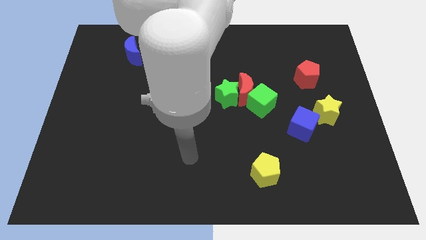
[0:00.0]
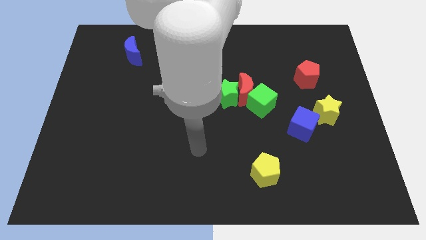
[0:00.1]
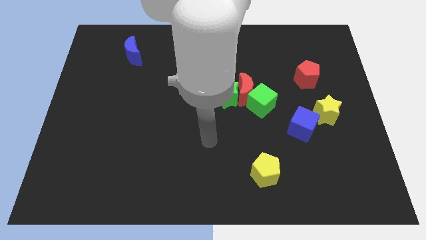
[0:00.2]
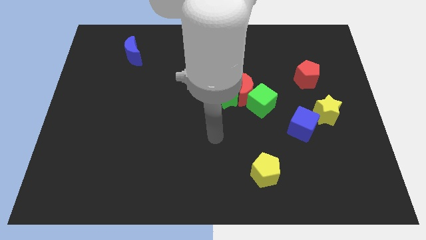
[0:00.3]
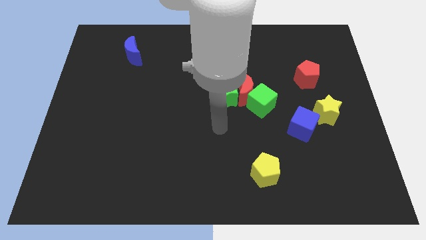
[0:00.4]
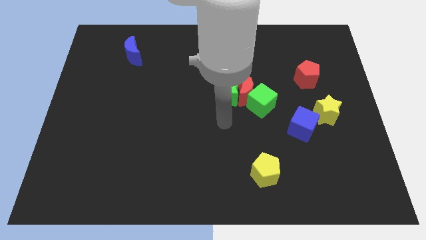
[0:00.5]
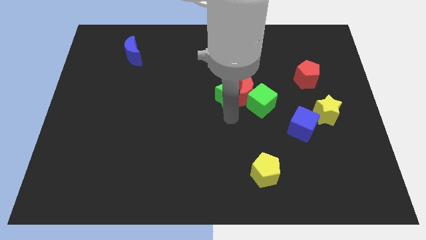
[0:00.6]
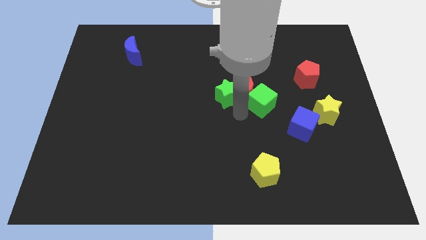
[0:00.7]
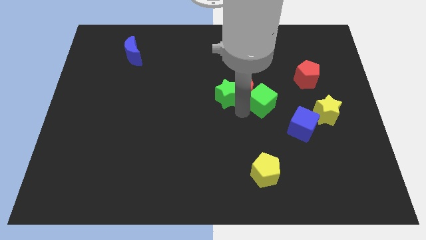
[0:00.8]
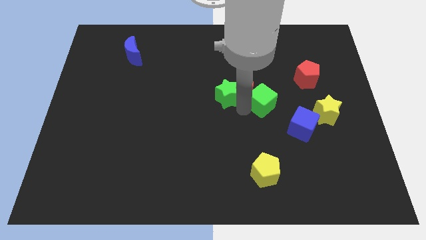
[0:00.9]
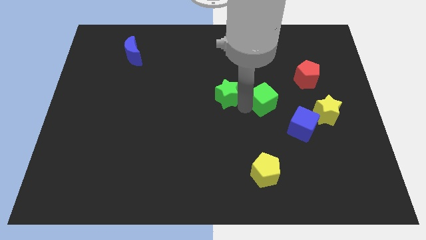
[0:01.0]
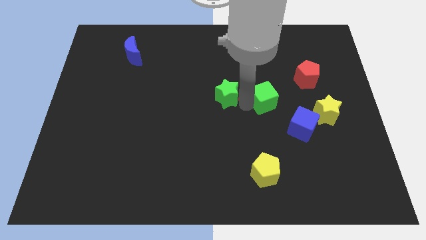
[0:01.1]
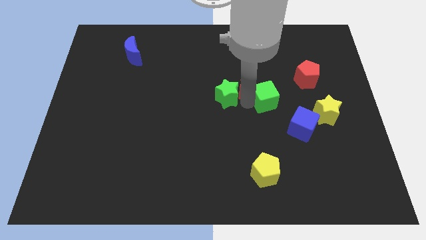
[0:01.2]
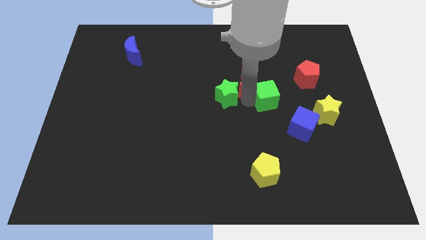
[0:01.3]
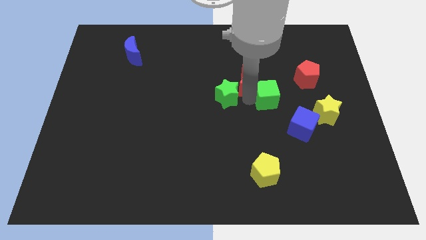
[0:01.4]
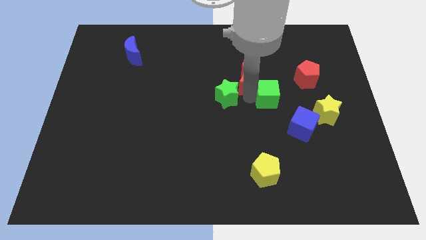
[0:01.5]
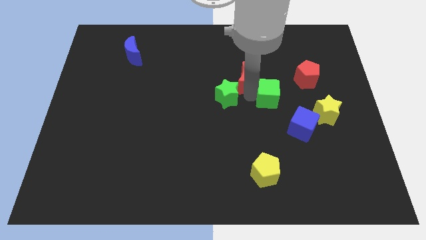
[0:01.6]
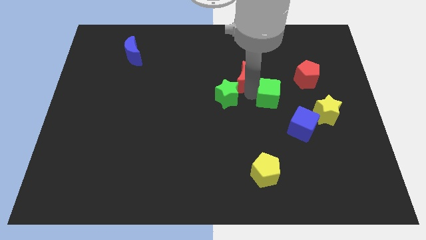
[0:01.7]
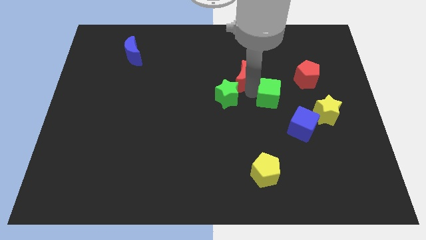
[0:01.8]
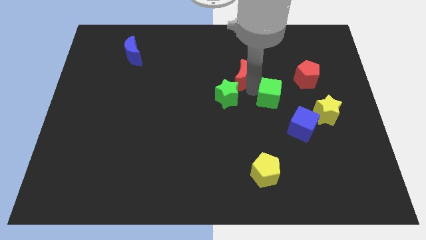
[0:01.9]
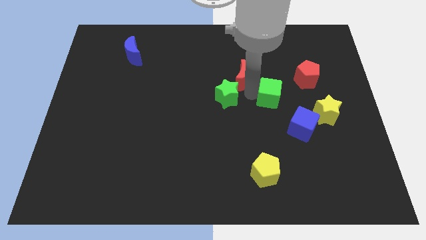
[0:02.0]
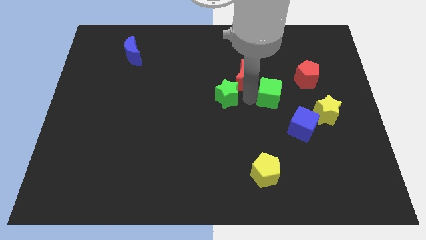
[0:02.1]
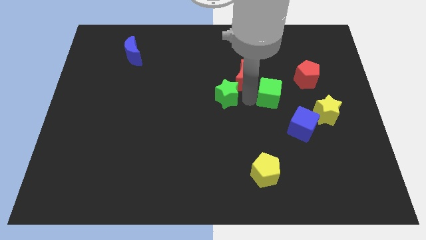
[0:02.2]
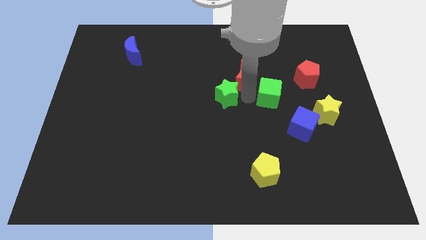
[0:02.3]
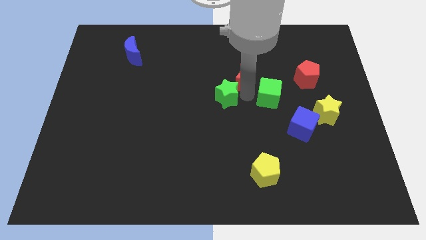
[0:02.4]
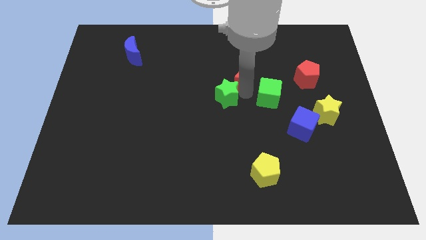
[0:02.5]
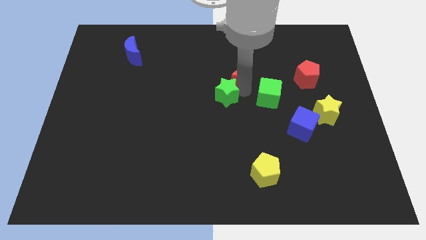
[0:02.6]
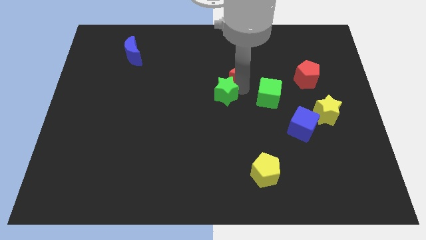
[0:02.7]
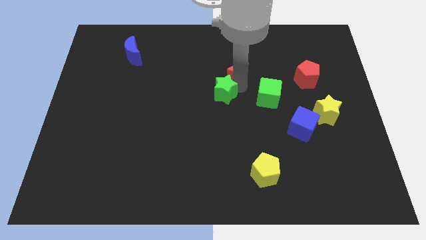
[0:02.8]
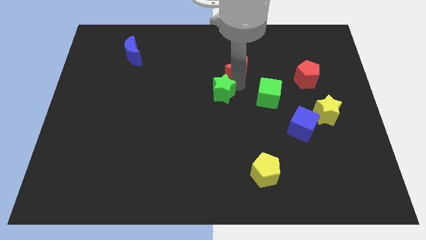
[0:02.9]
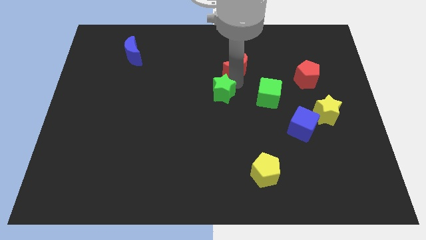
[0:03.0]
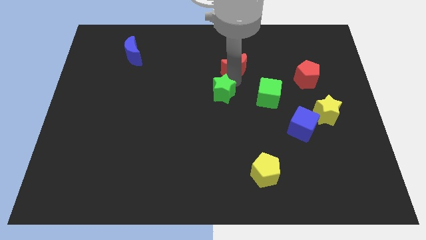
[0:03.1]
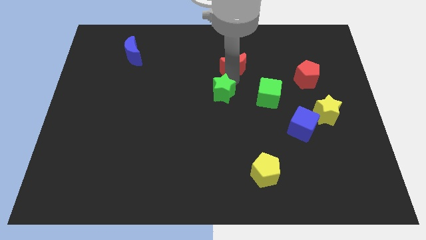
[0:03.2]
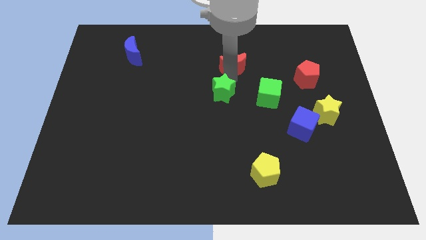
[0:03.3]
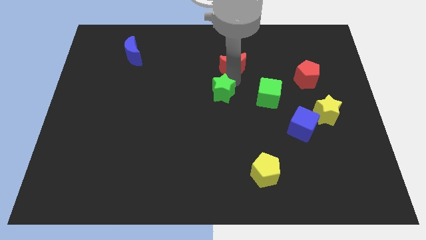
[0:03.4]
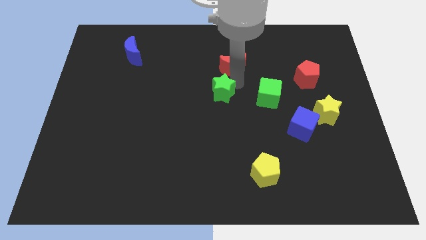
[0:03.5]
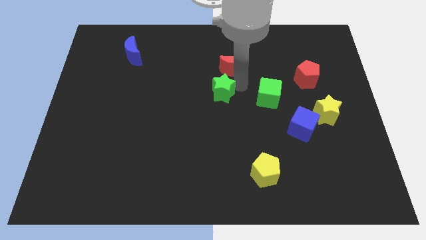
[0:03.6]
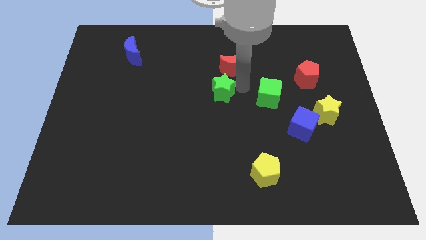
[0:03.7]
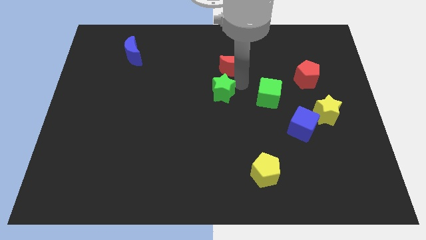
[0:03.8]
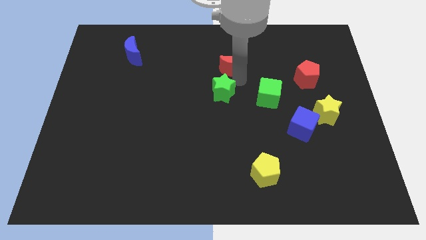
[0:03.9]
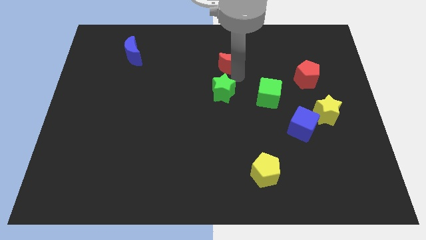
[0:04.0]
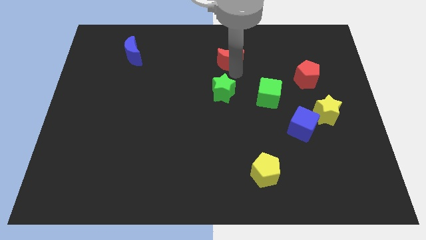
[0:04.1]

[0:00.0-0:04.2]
move the red moon away from the green star and green cube

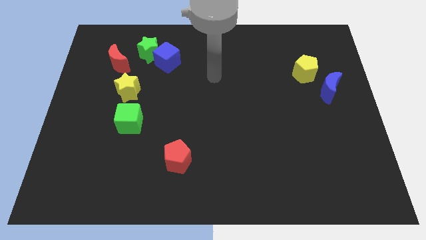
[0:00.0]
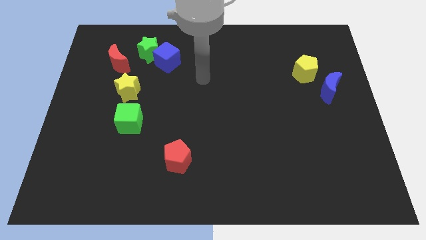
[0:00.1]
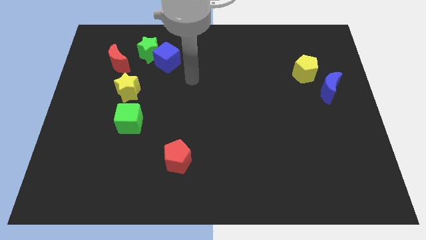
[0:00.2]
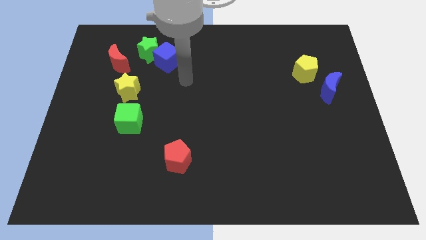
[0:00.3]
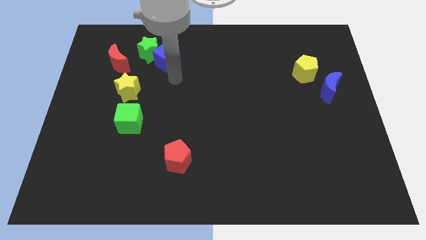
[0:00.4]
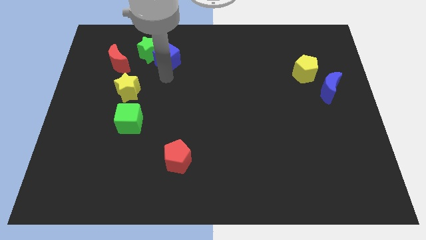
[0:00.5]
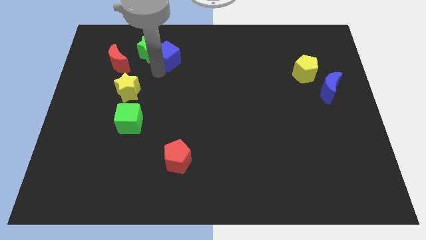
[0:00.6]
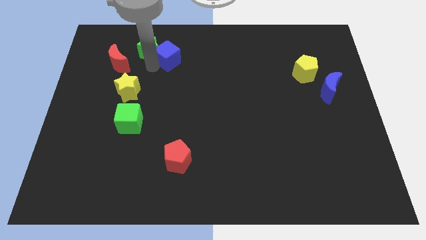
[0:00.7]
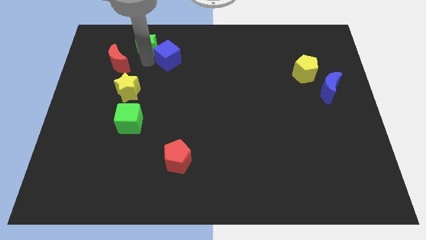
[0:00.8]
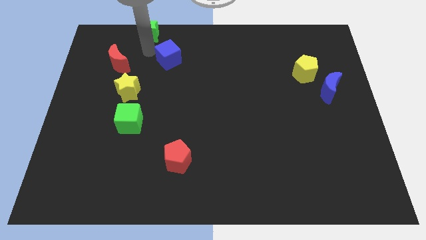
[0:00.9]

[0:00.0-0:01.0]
pull the blue cube apart from the green star

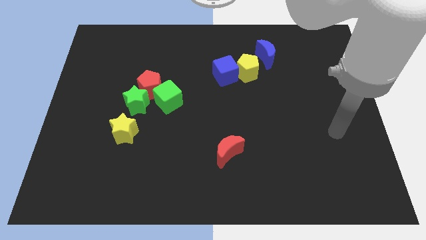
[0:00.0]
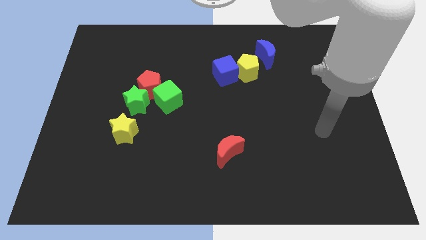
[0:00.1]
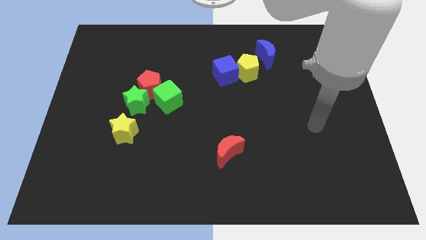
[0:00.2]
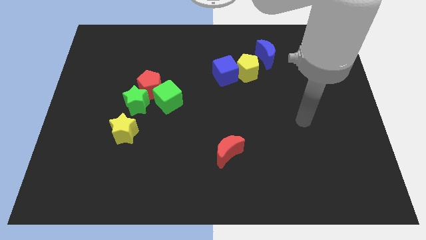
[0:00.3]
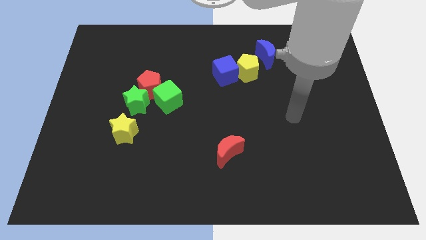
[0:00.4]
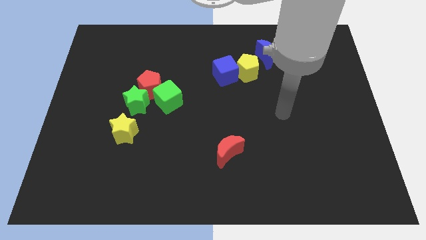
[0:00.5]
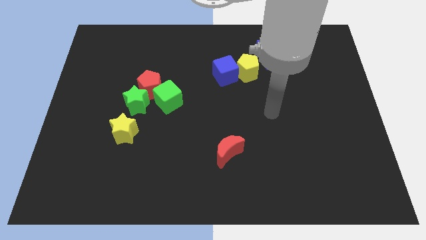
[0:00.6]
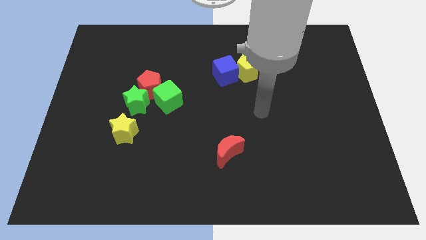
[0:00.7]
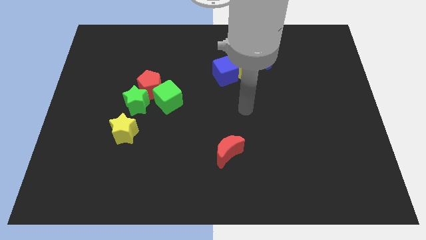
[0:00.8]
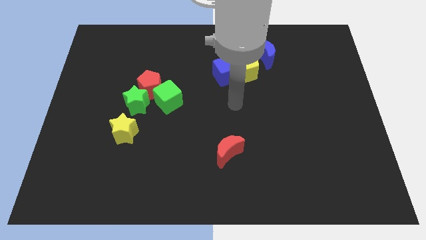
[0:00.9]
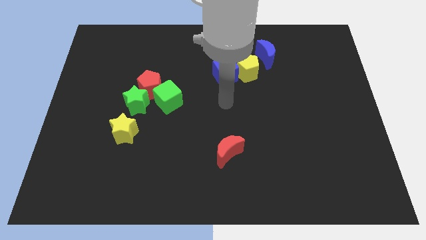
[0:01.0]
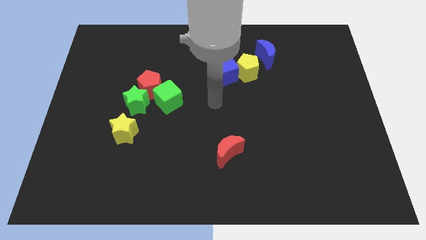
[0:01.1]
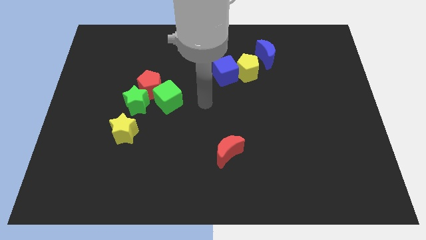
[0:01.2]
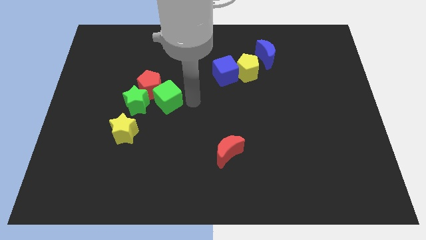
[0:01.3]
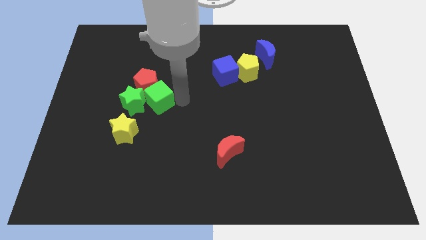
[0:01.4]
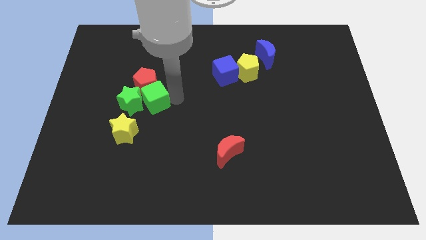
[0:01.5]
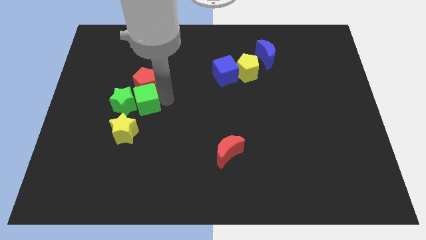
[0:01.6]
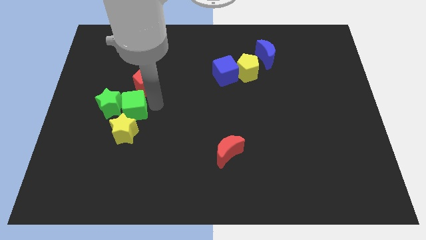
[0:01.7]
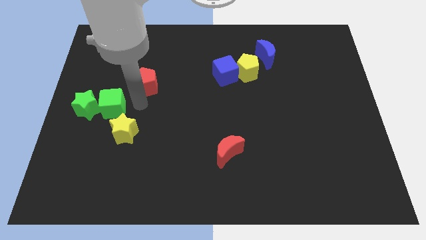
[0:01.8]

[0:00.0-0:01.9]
separate the red pentagon from the green star and green cube

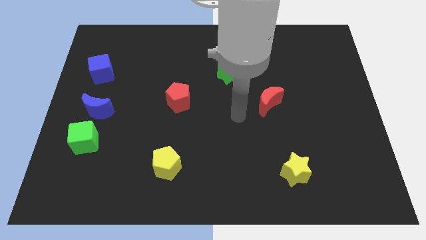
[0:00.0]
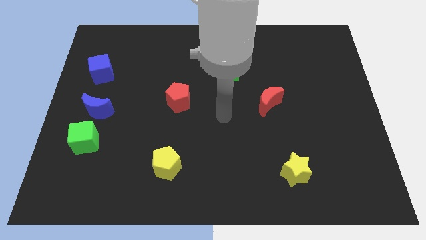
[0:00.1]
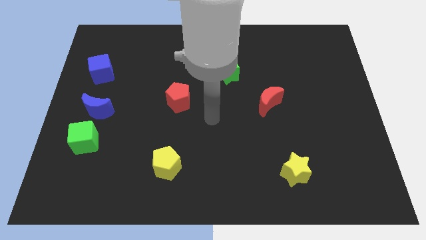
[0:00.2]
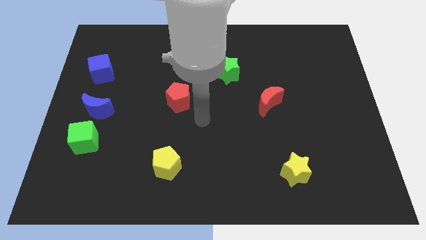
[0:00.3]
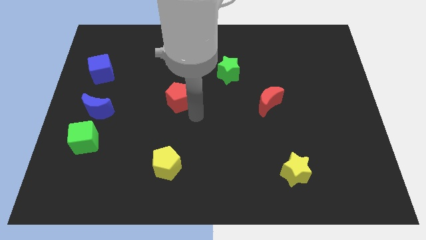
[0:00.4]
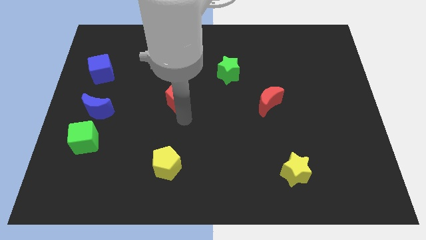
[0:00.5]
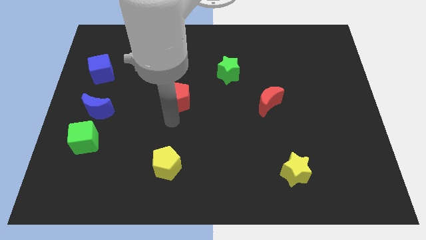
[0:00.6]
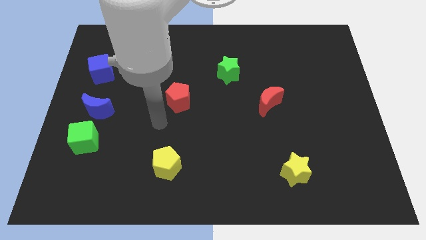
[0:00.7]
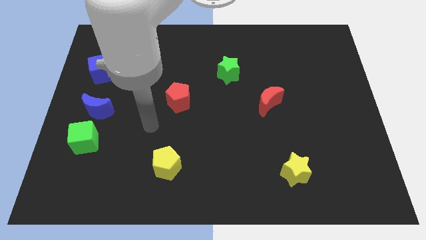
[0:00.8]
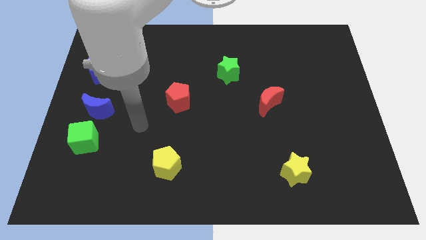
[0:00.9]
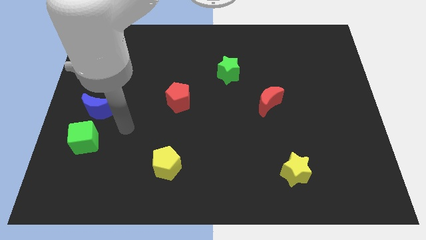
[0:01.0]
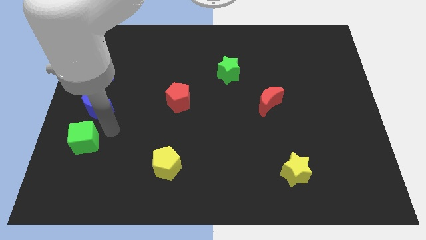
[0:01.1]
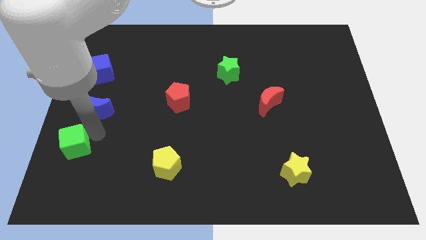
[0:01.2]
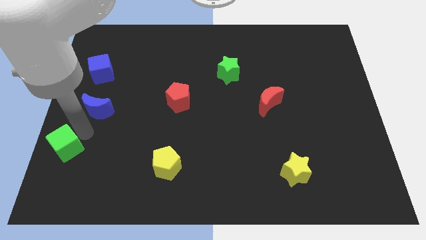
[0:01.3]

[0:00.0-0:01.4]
separate the blue moon from the green cube

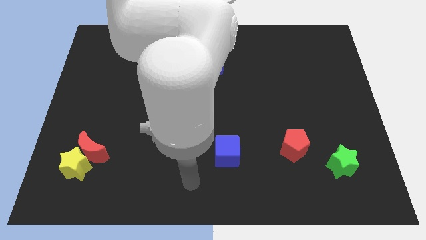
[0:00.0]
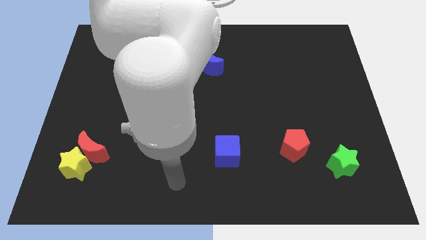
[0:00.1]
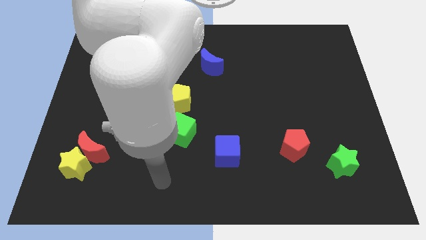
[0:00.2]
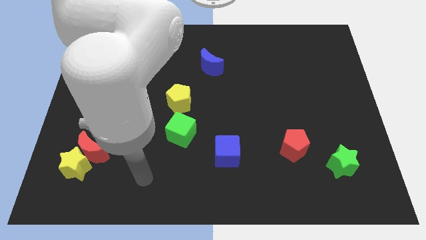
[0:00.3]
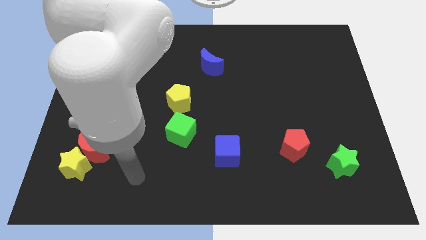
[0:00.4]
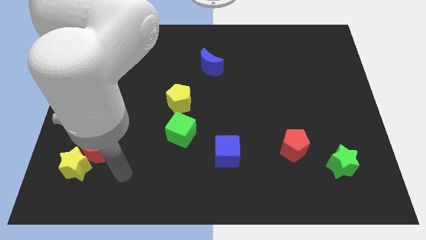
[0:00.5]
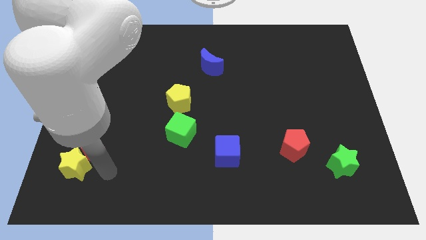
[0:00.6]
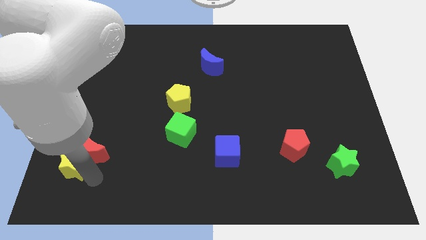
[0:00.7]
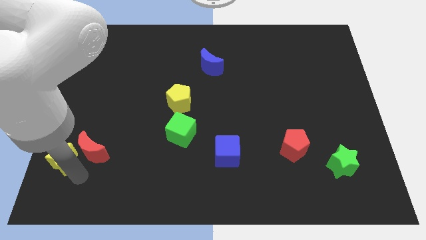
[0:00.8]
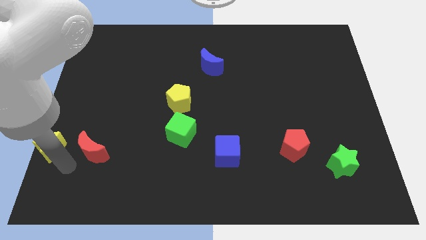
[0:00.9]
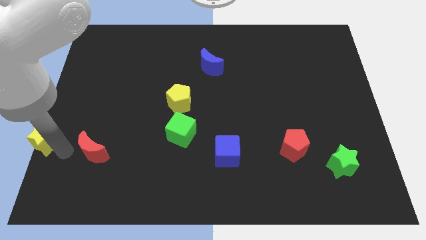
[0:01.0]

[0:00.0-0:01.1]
move the red moon away from the yellow star
